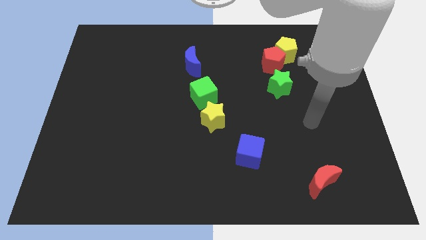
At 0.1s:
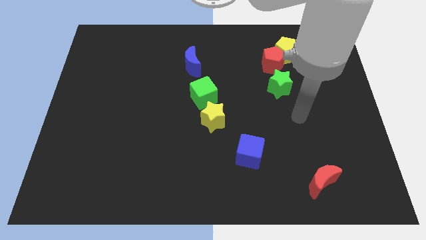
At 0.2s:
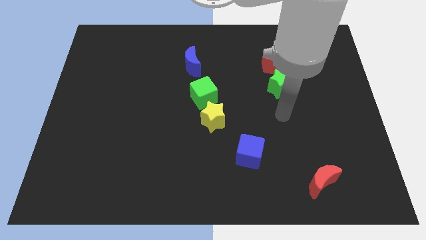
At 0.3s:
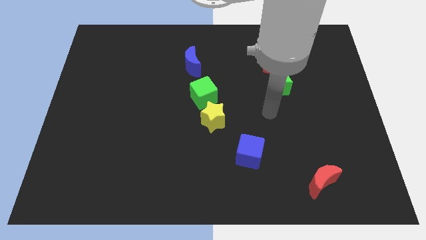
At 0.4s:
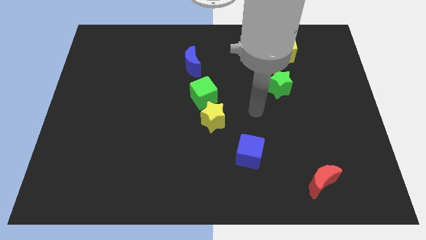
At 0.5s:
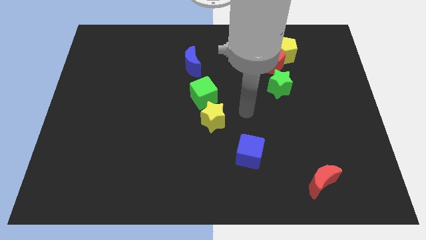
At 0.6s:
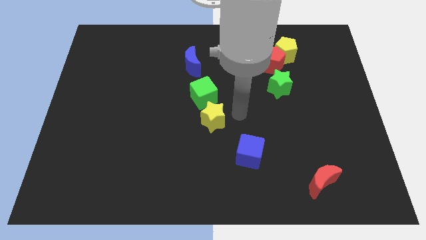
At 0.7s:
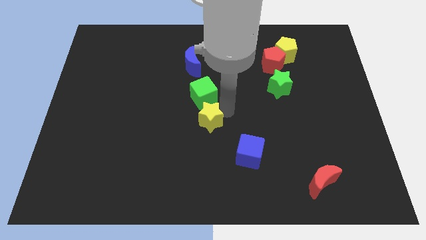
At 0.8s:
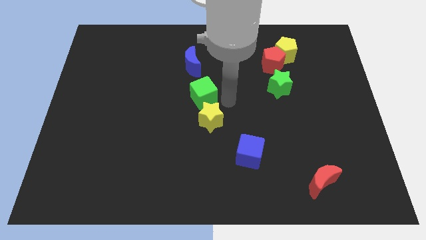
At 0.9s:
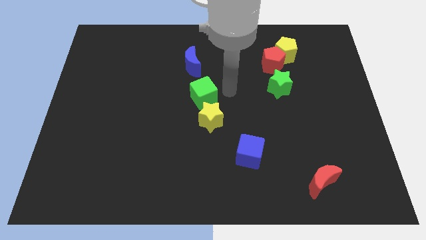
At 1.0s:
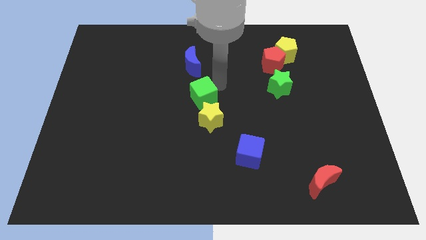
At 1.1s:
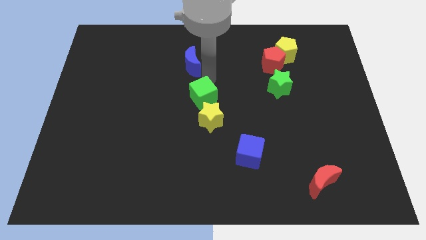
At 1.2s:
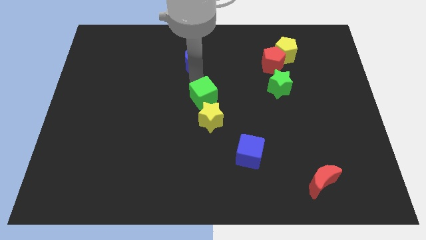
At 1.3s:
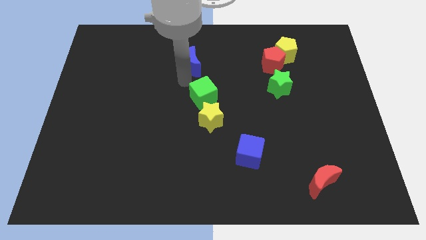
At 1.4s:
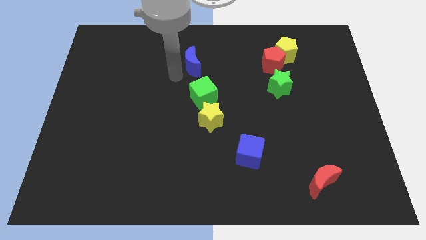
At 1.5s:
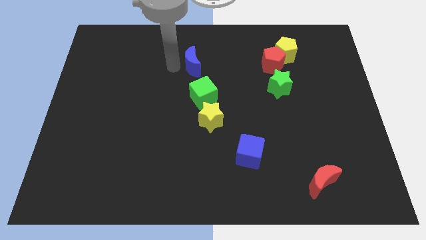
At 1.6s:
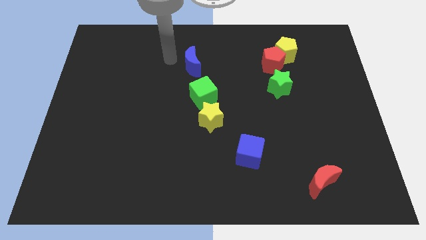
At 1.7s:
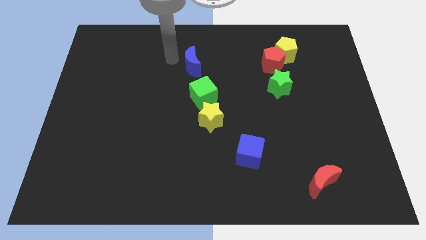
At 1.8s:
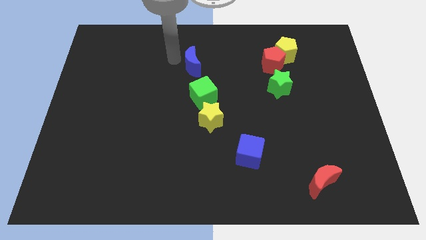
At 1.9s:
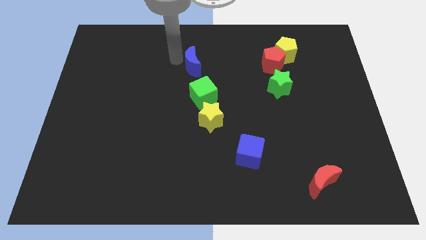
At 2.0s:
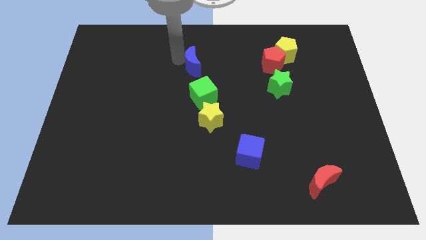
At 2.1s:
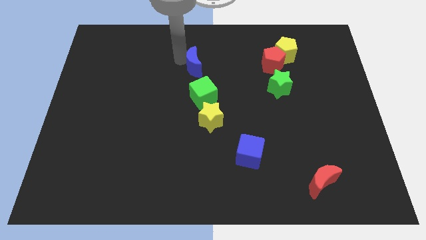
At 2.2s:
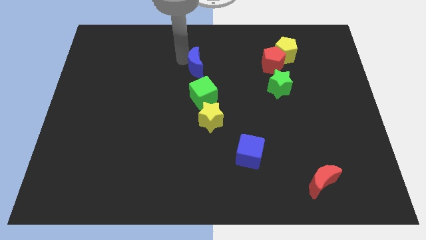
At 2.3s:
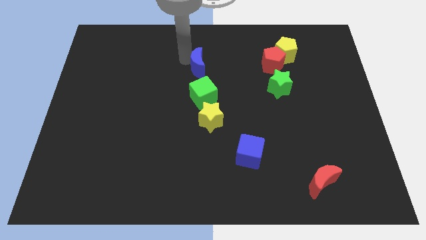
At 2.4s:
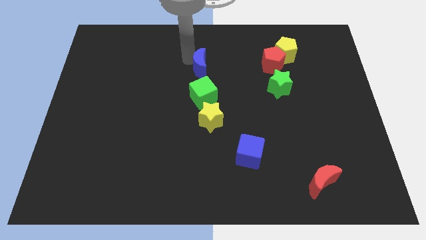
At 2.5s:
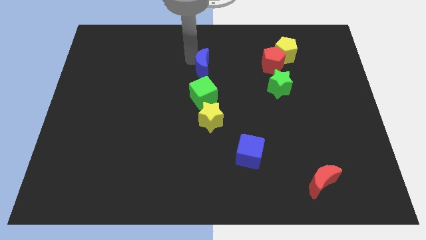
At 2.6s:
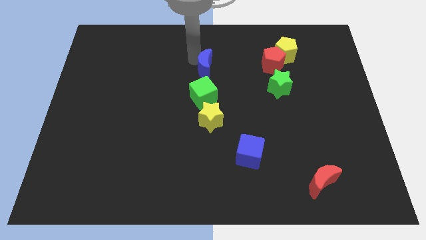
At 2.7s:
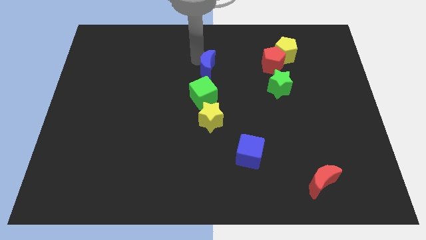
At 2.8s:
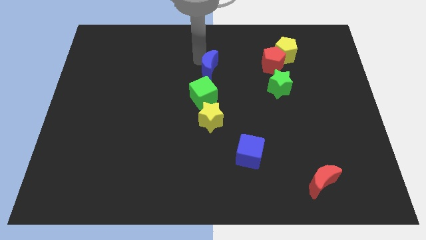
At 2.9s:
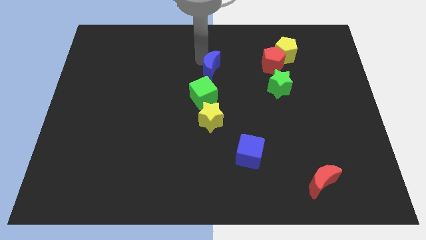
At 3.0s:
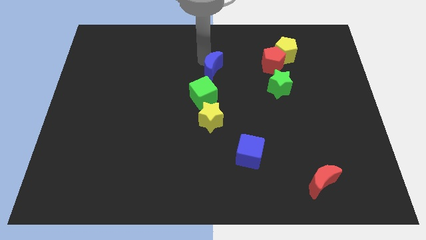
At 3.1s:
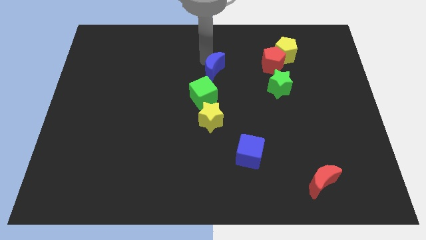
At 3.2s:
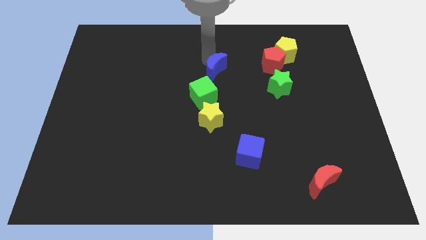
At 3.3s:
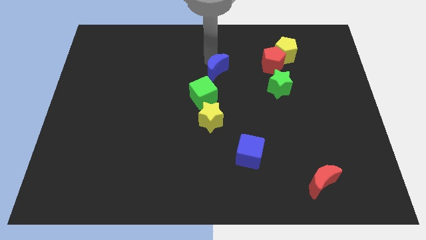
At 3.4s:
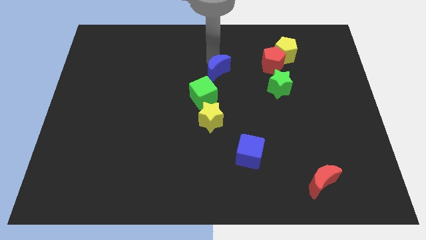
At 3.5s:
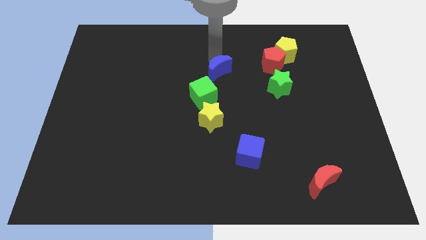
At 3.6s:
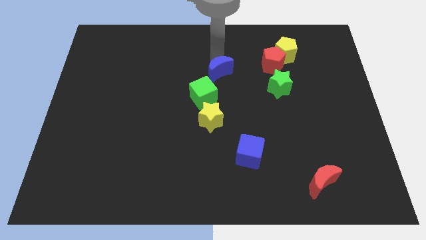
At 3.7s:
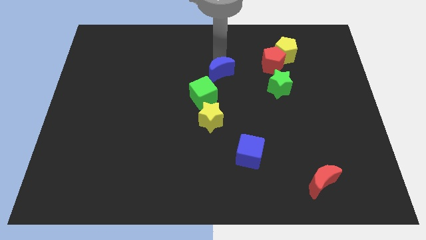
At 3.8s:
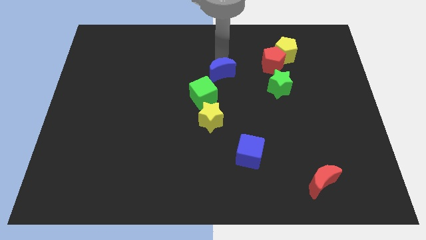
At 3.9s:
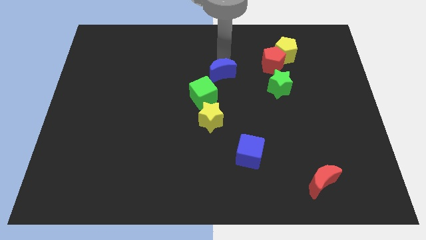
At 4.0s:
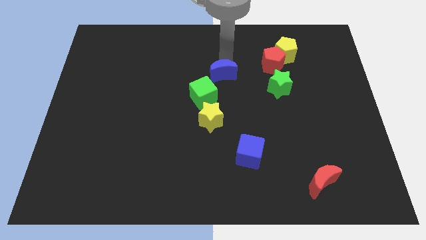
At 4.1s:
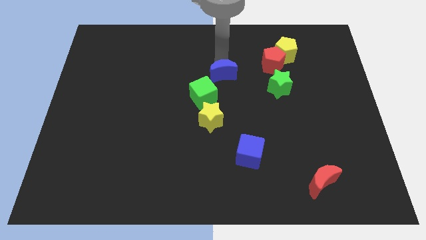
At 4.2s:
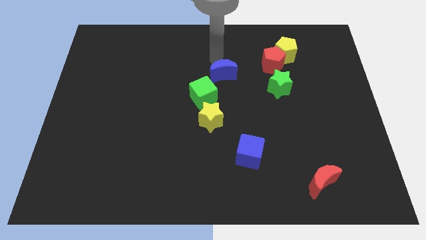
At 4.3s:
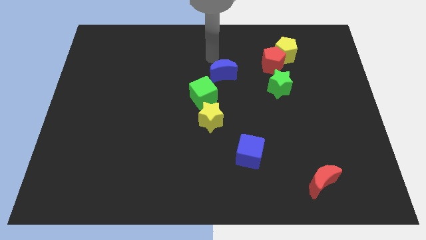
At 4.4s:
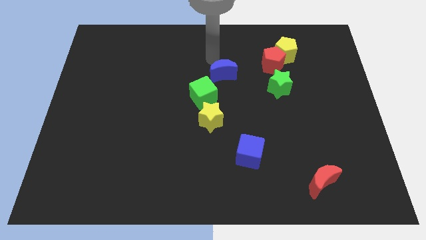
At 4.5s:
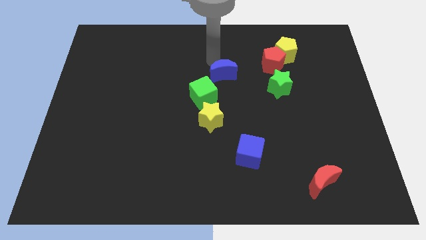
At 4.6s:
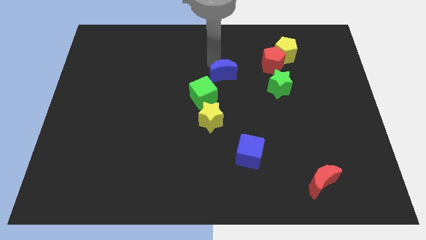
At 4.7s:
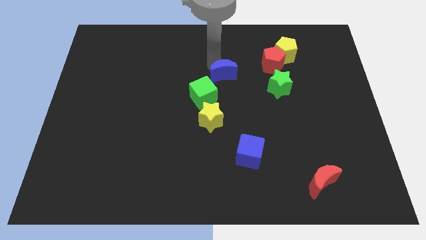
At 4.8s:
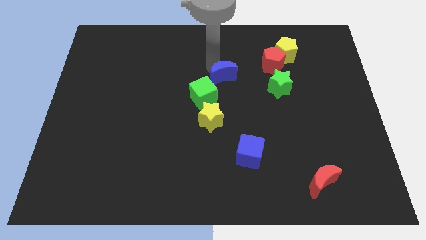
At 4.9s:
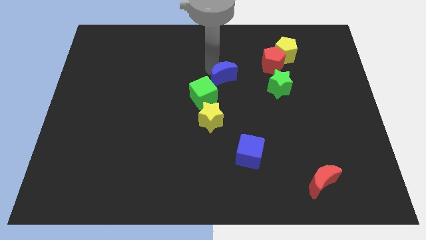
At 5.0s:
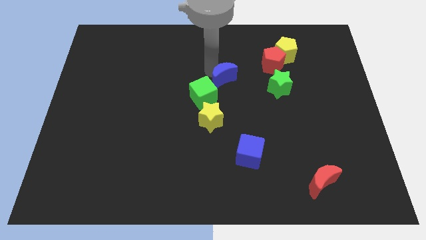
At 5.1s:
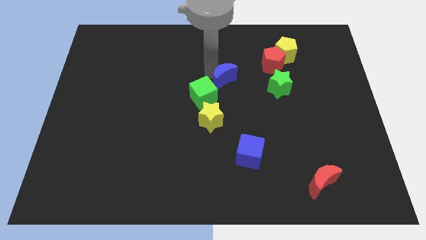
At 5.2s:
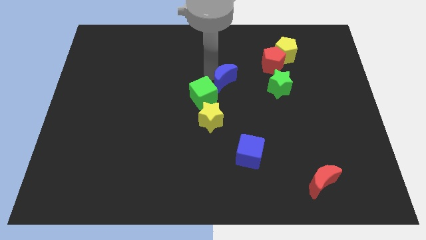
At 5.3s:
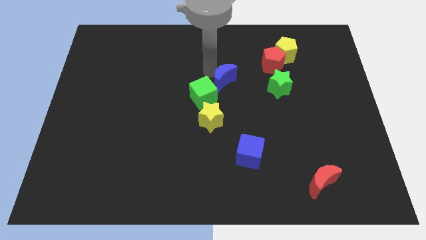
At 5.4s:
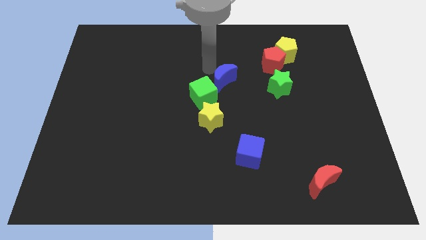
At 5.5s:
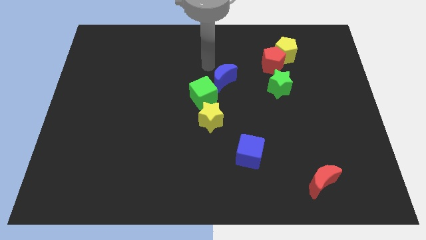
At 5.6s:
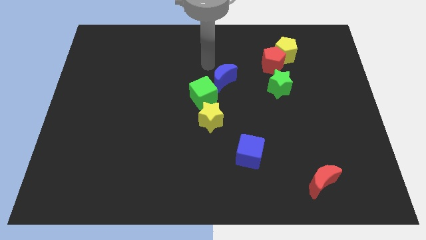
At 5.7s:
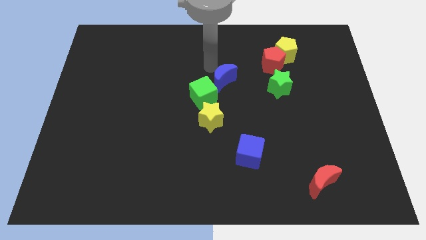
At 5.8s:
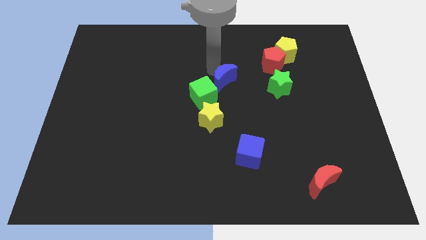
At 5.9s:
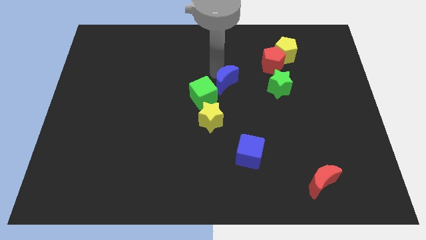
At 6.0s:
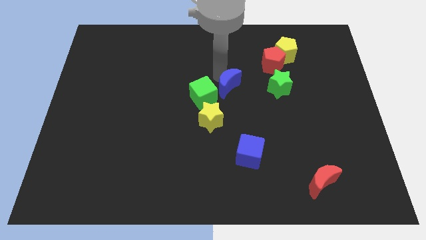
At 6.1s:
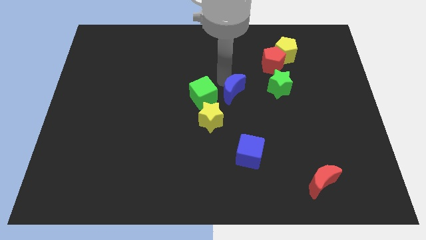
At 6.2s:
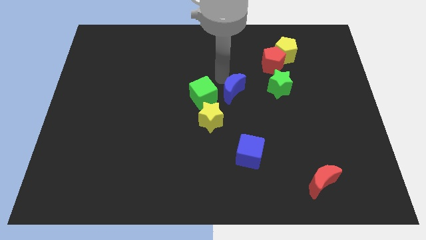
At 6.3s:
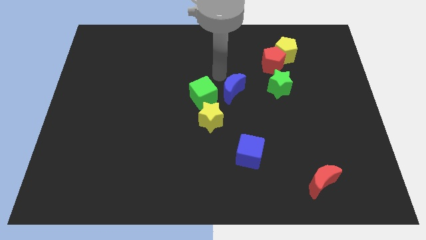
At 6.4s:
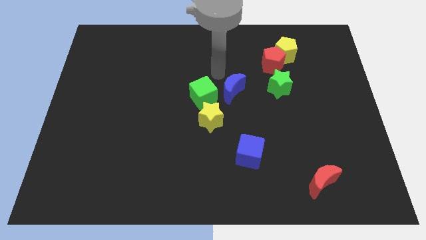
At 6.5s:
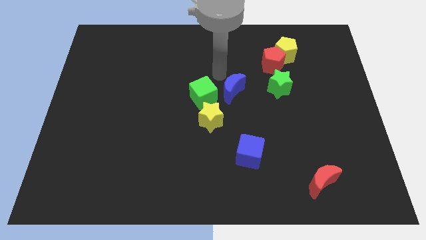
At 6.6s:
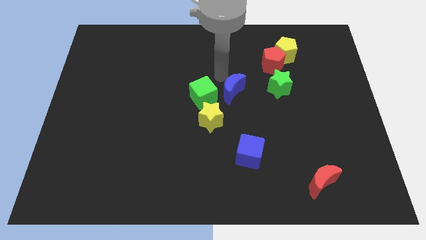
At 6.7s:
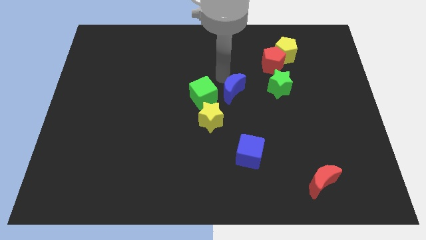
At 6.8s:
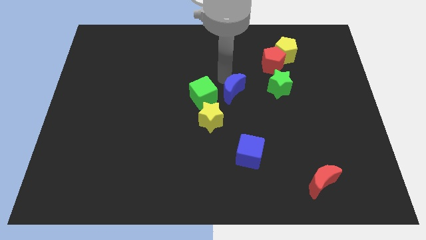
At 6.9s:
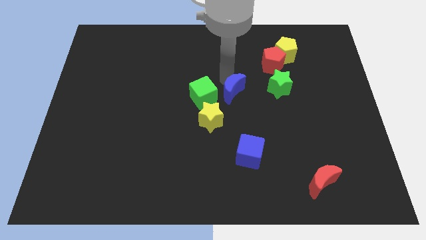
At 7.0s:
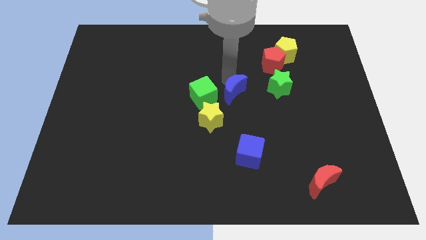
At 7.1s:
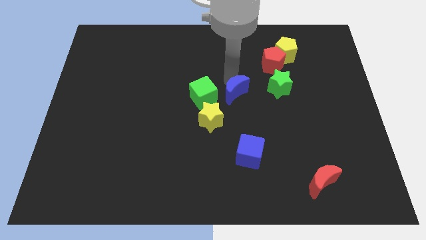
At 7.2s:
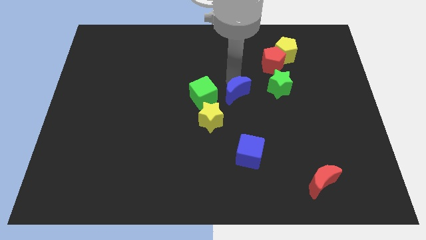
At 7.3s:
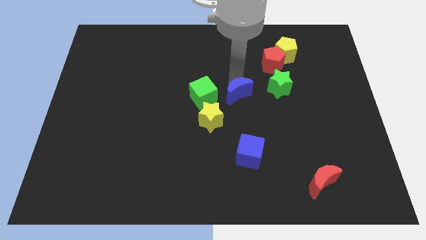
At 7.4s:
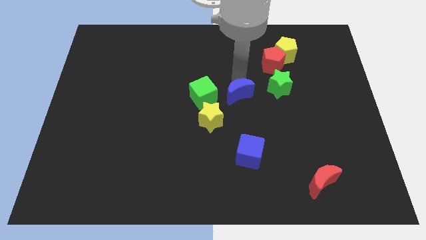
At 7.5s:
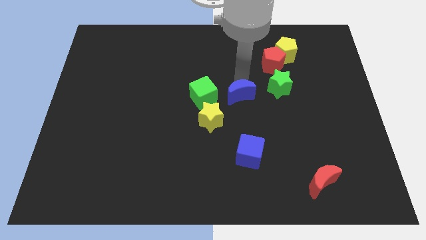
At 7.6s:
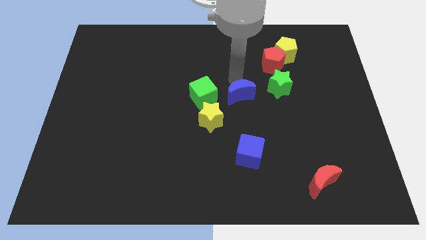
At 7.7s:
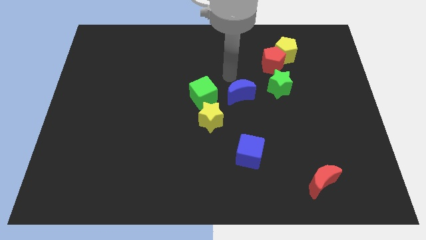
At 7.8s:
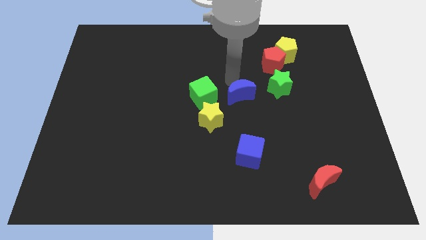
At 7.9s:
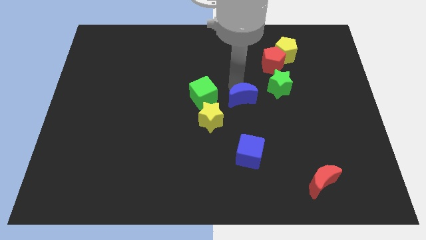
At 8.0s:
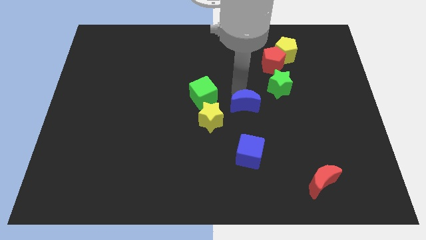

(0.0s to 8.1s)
put the blue moon just right of the yellow star
